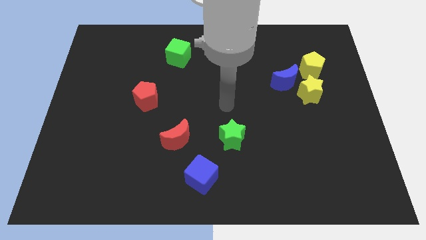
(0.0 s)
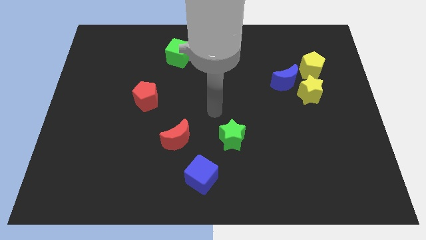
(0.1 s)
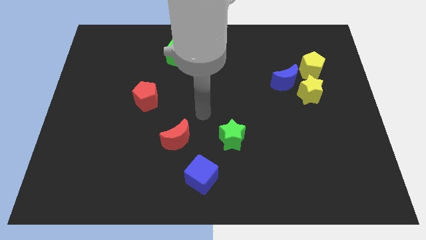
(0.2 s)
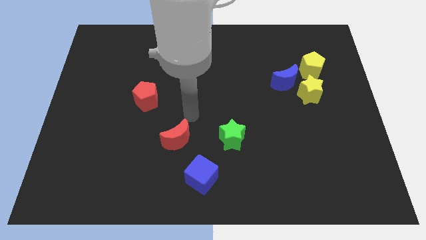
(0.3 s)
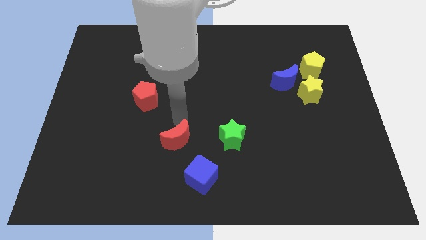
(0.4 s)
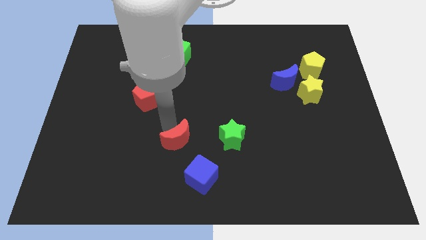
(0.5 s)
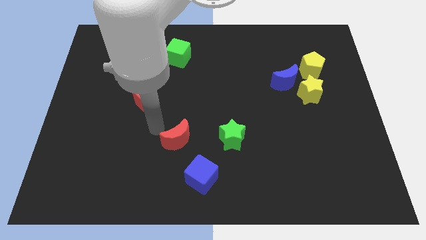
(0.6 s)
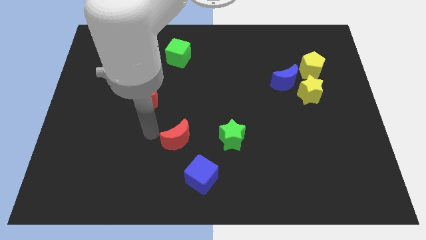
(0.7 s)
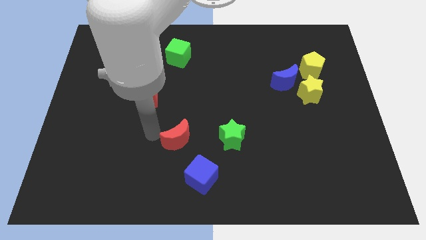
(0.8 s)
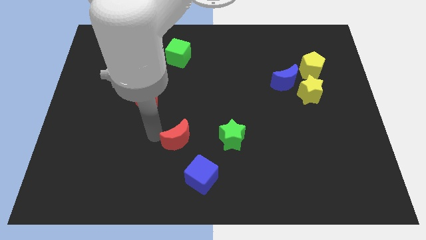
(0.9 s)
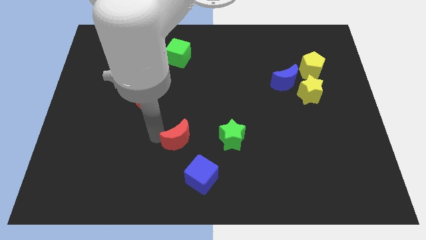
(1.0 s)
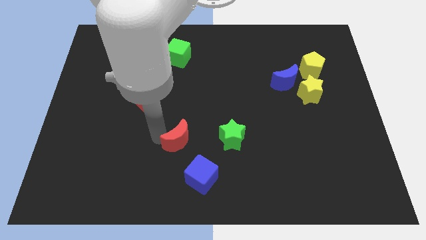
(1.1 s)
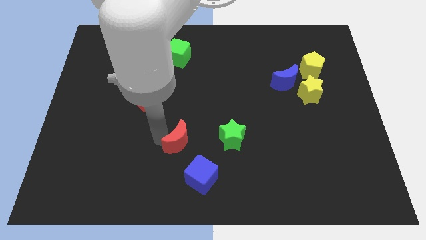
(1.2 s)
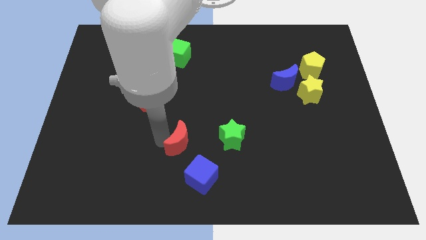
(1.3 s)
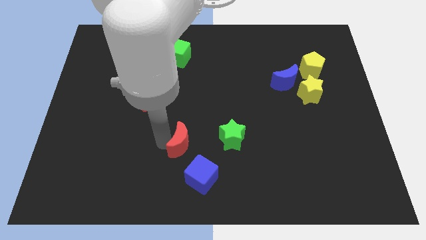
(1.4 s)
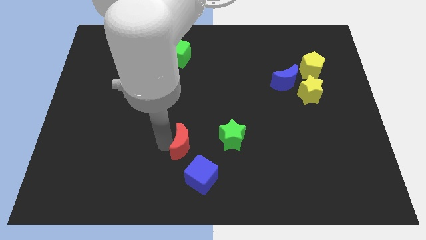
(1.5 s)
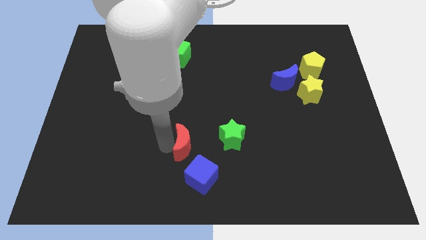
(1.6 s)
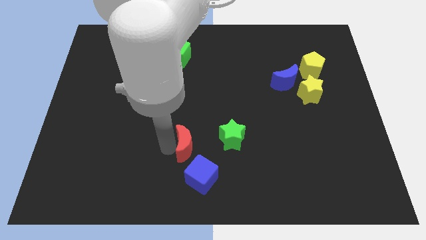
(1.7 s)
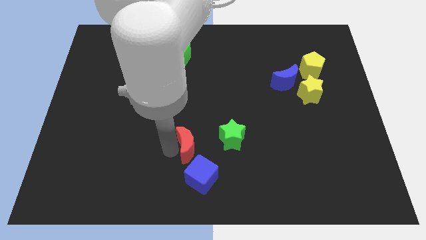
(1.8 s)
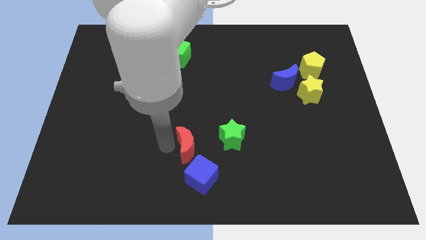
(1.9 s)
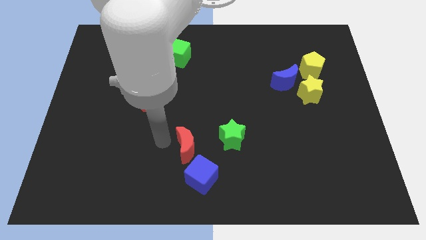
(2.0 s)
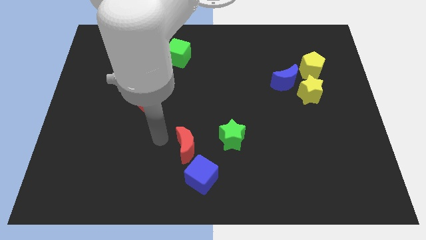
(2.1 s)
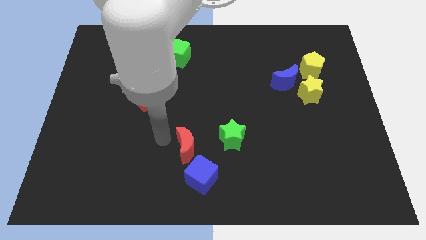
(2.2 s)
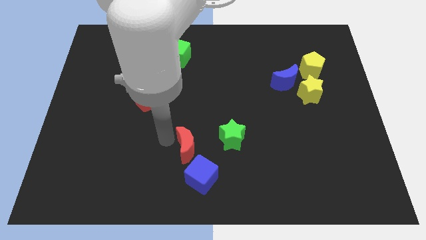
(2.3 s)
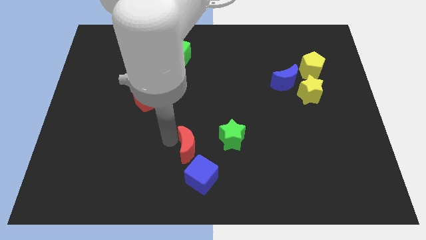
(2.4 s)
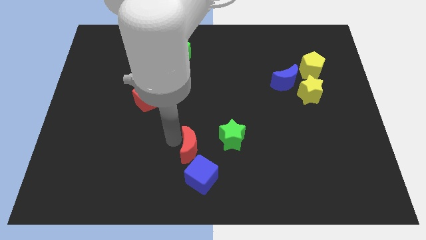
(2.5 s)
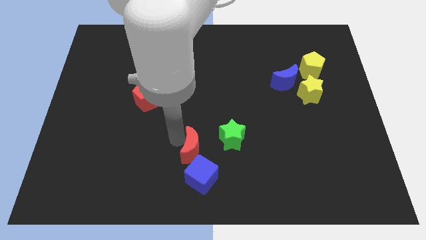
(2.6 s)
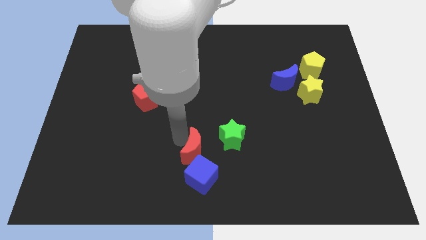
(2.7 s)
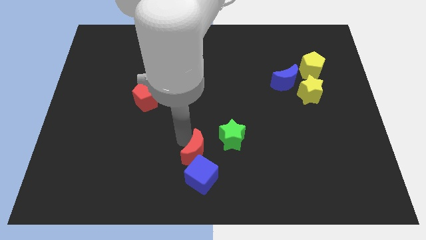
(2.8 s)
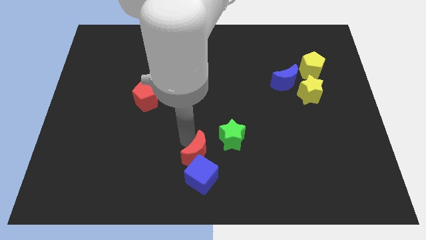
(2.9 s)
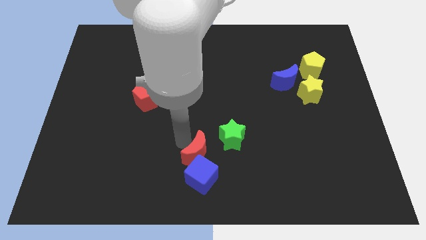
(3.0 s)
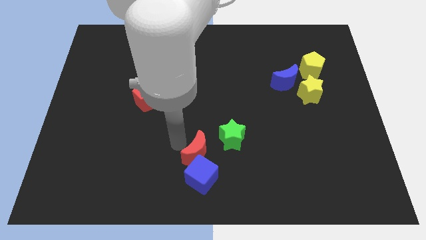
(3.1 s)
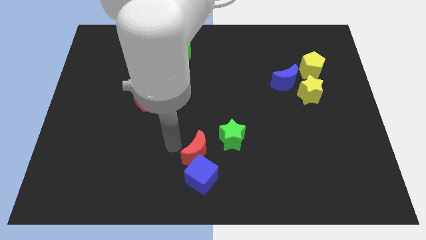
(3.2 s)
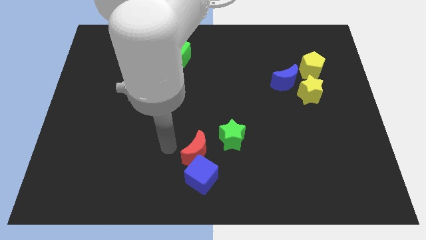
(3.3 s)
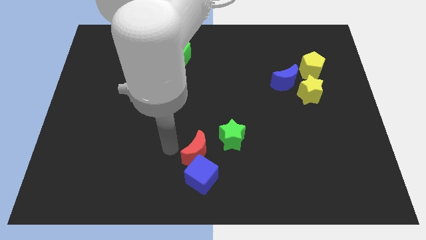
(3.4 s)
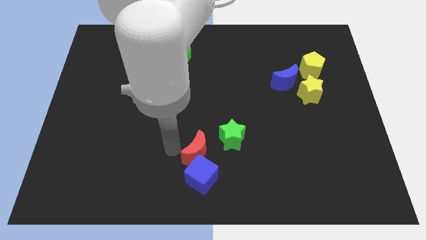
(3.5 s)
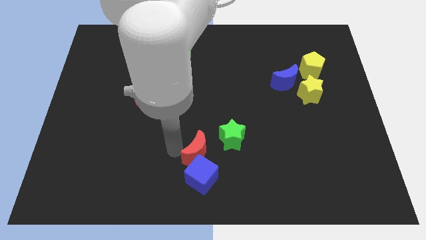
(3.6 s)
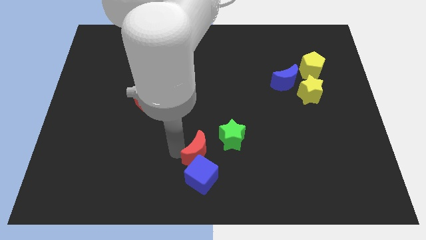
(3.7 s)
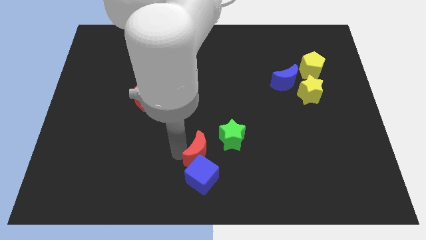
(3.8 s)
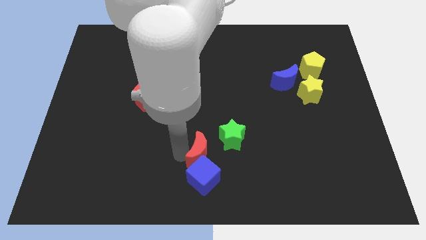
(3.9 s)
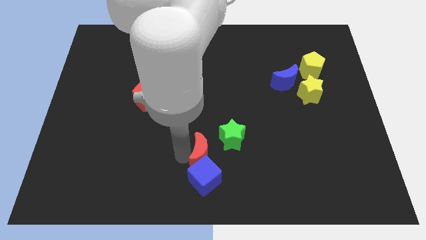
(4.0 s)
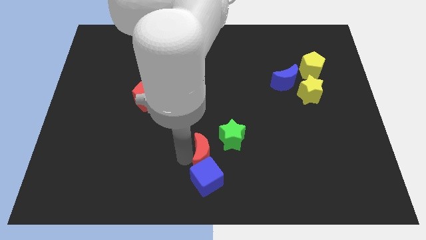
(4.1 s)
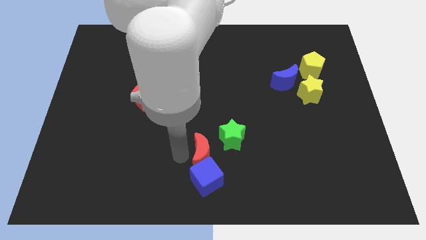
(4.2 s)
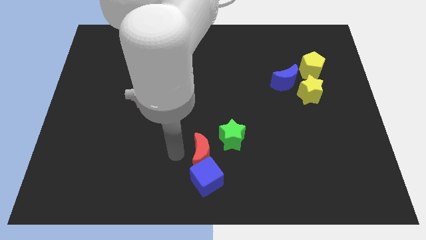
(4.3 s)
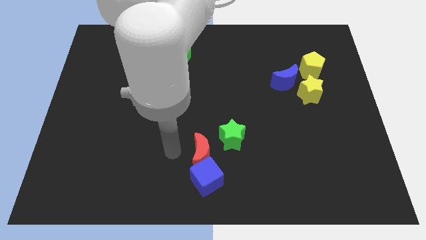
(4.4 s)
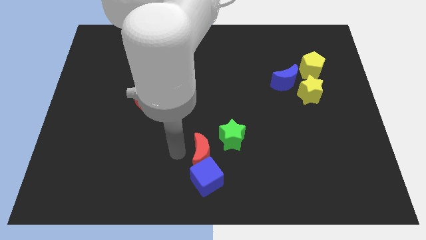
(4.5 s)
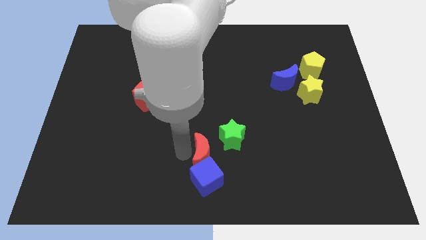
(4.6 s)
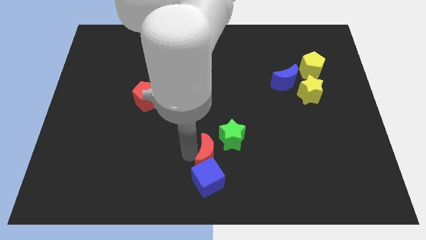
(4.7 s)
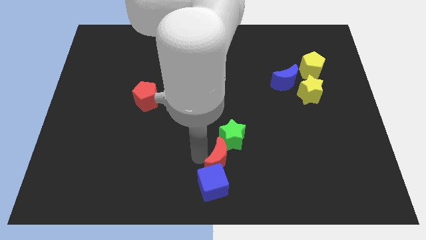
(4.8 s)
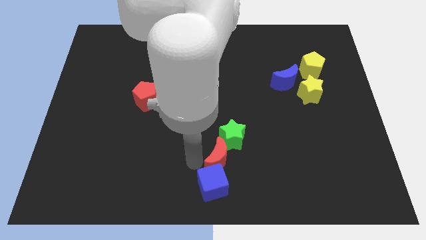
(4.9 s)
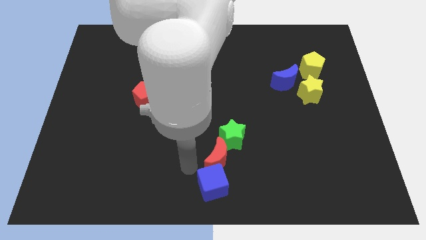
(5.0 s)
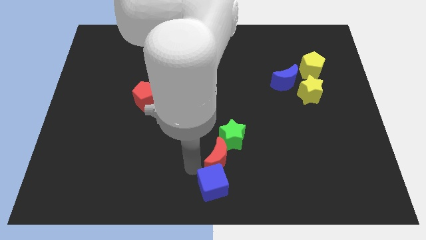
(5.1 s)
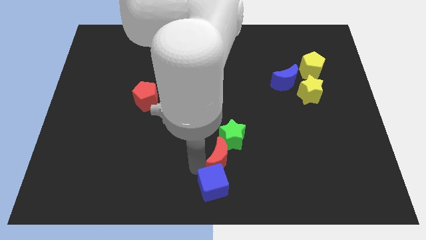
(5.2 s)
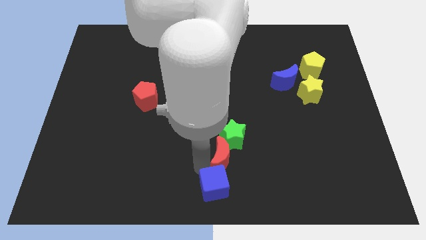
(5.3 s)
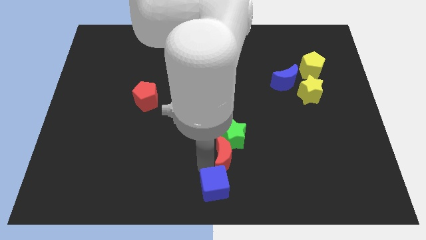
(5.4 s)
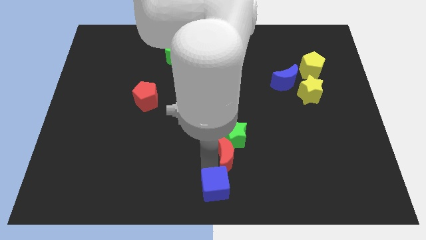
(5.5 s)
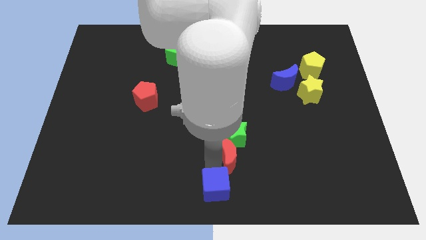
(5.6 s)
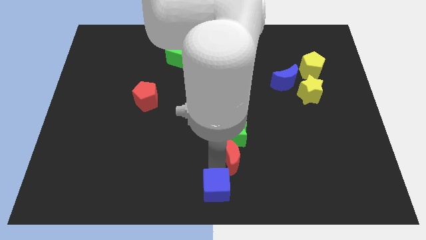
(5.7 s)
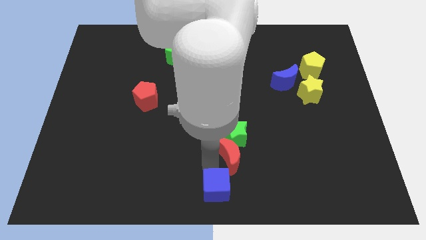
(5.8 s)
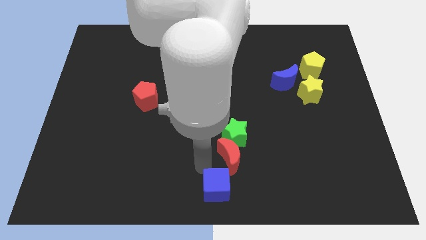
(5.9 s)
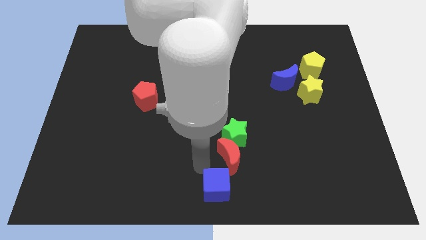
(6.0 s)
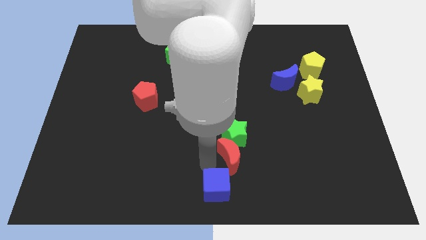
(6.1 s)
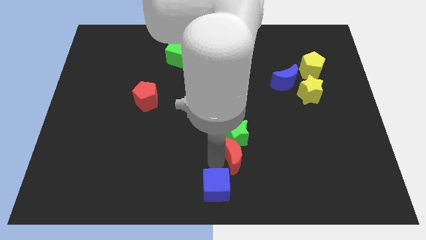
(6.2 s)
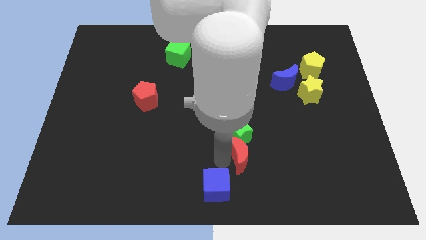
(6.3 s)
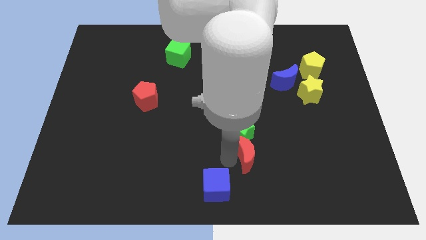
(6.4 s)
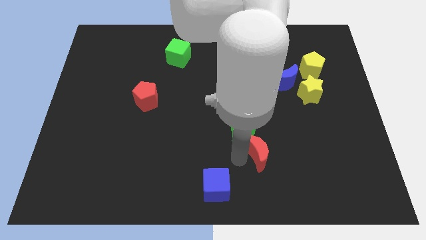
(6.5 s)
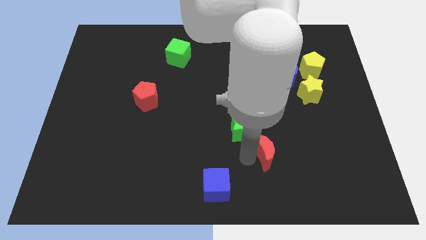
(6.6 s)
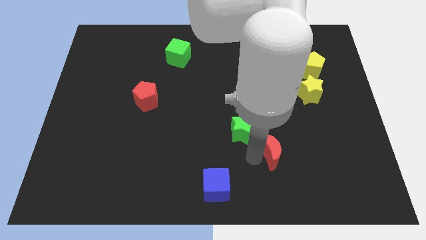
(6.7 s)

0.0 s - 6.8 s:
push the red moon right

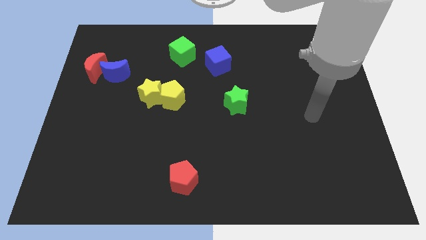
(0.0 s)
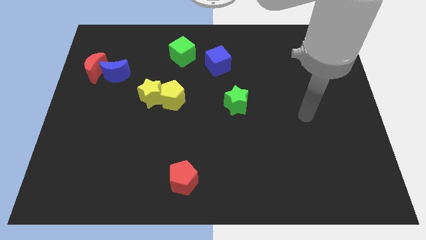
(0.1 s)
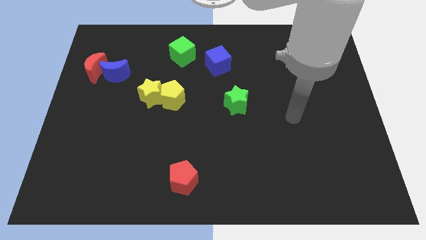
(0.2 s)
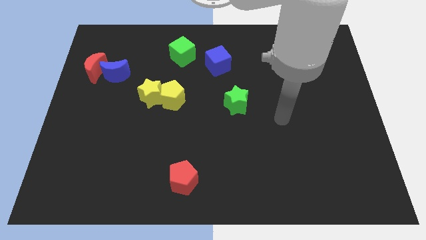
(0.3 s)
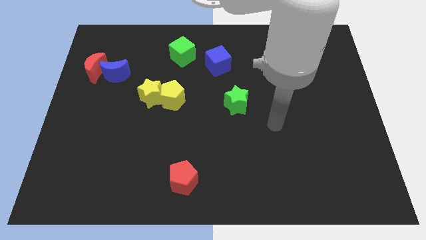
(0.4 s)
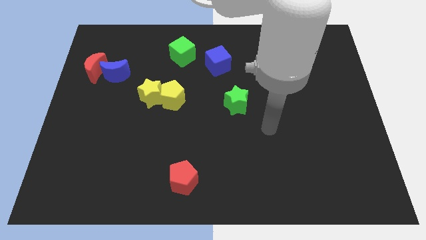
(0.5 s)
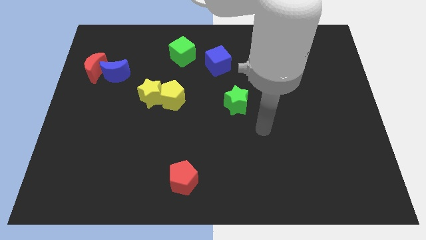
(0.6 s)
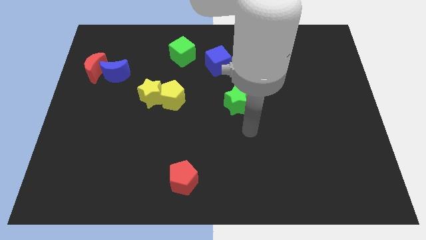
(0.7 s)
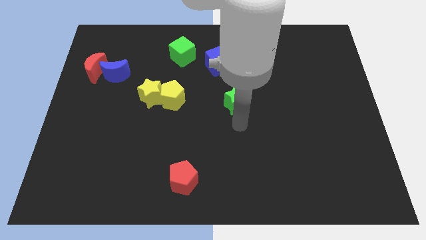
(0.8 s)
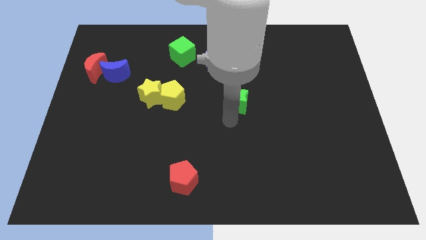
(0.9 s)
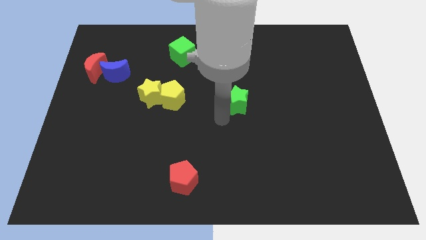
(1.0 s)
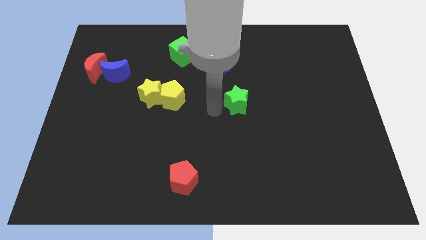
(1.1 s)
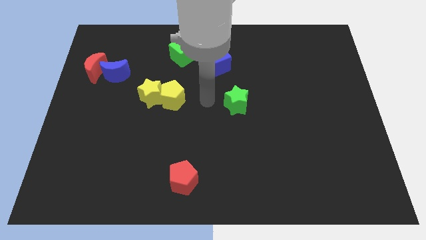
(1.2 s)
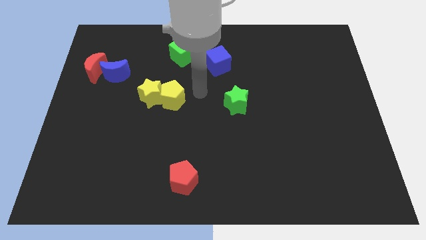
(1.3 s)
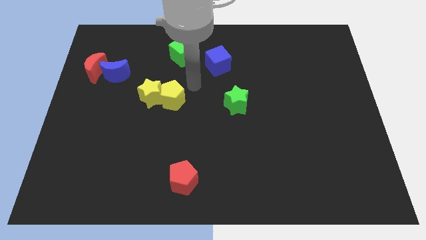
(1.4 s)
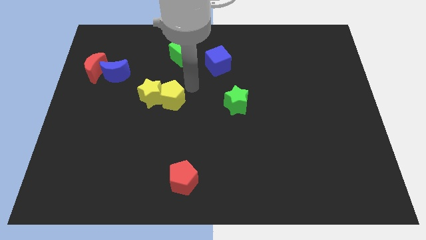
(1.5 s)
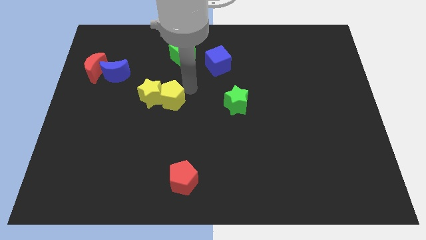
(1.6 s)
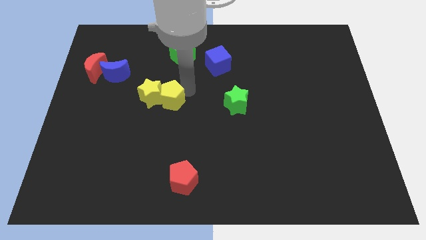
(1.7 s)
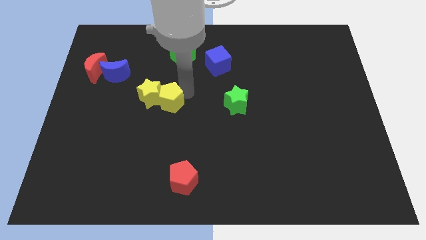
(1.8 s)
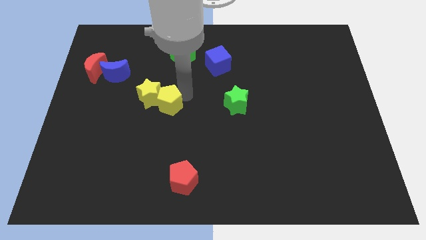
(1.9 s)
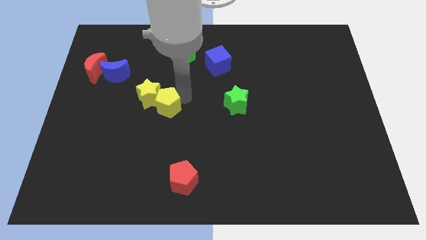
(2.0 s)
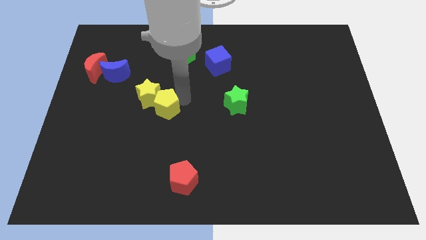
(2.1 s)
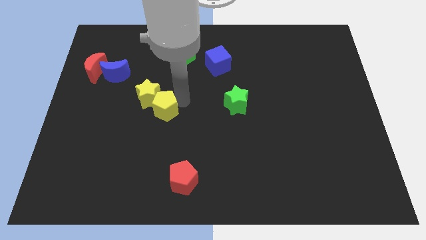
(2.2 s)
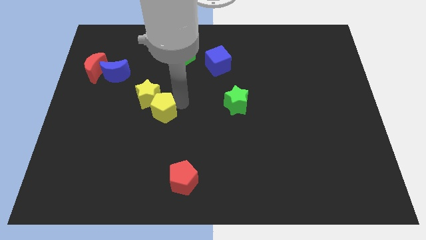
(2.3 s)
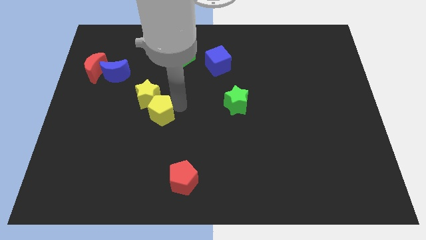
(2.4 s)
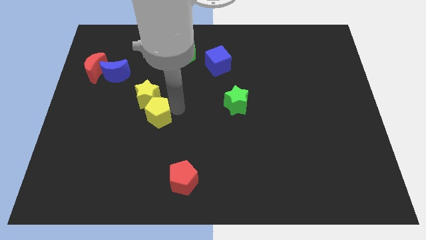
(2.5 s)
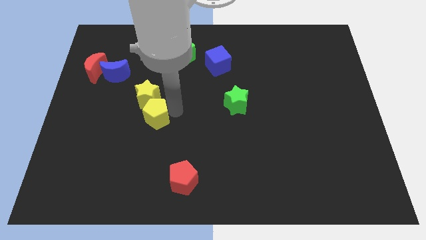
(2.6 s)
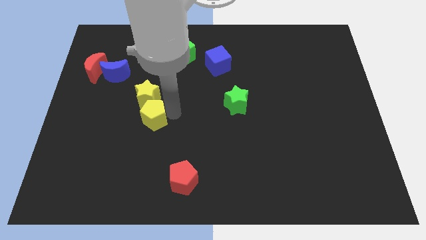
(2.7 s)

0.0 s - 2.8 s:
slightly move the yellow pentagon diagonally downwards and left
